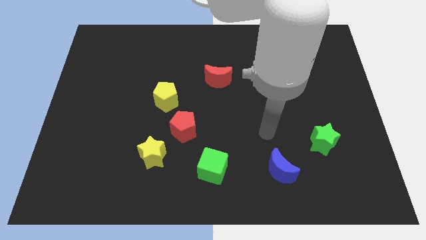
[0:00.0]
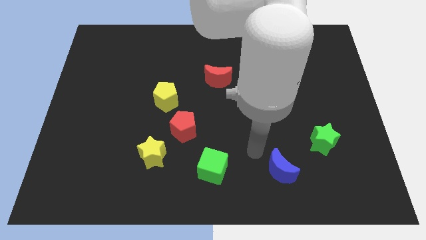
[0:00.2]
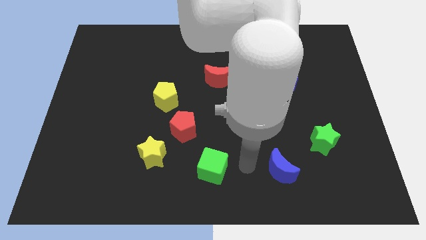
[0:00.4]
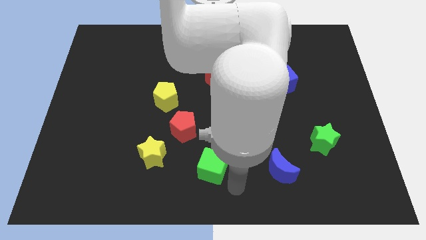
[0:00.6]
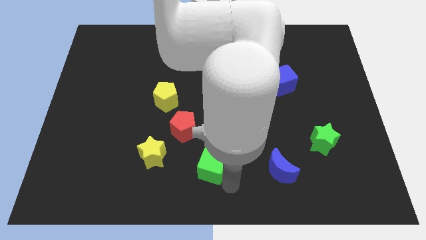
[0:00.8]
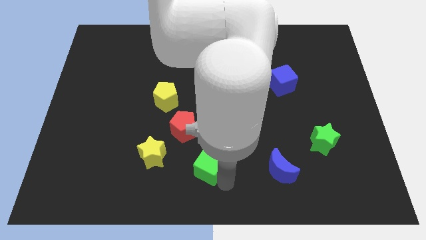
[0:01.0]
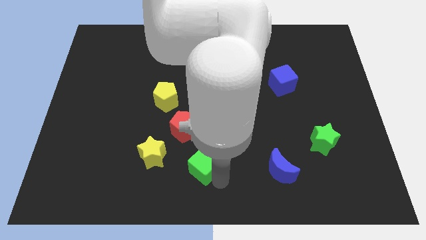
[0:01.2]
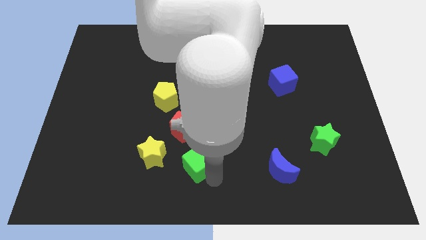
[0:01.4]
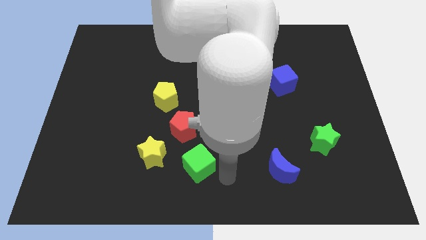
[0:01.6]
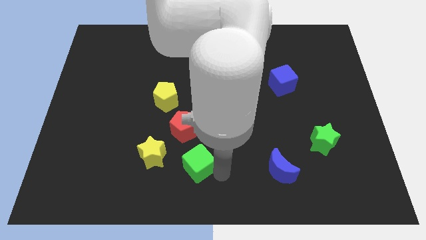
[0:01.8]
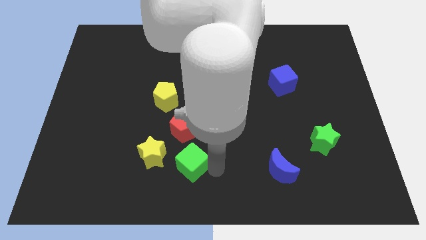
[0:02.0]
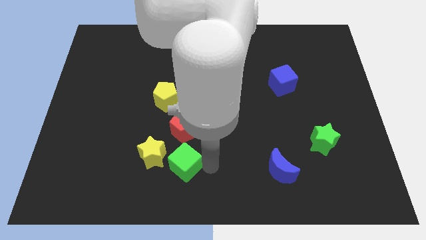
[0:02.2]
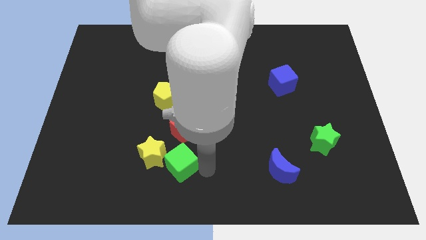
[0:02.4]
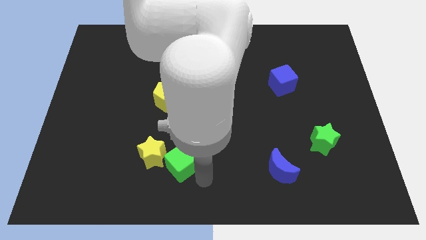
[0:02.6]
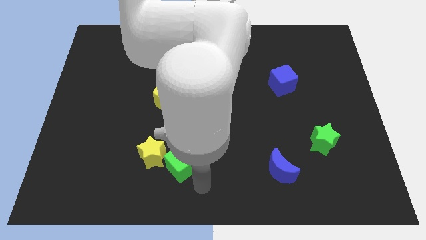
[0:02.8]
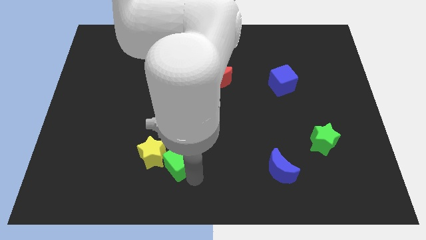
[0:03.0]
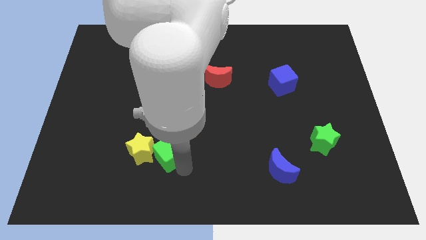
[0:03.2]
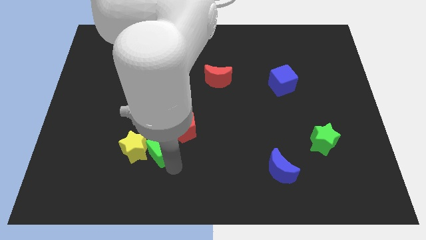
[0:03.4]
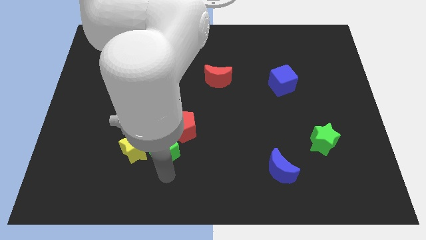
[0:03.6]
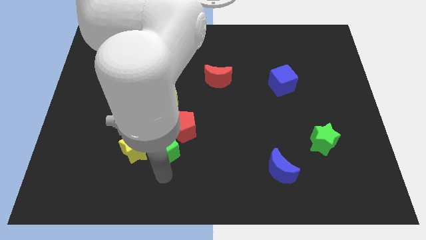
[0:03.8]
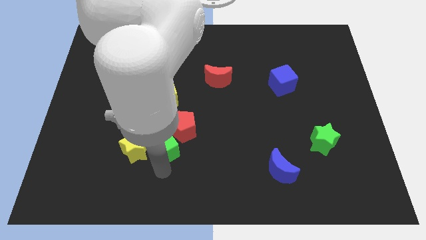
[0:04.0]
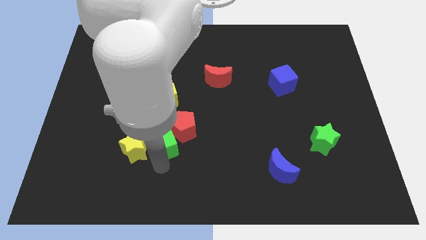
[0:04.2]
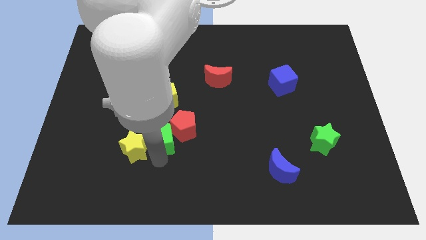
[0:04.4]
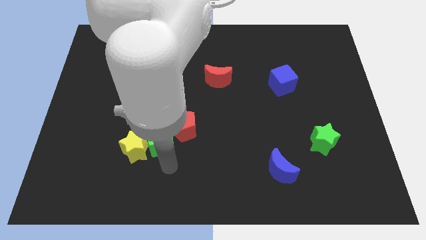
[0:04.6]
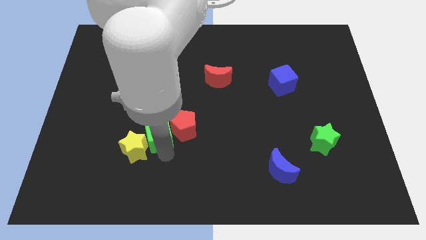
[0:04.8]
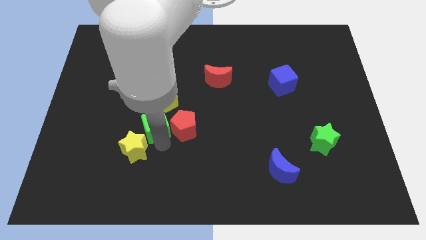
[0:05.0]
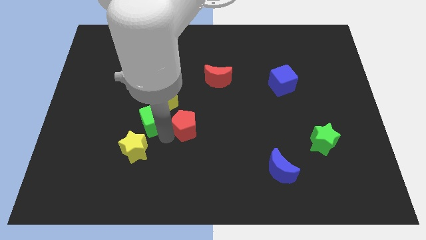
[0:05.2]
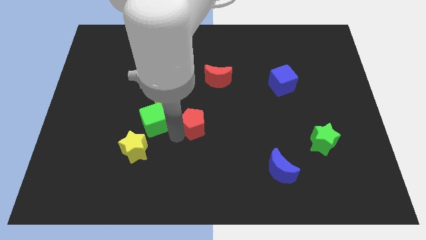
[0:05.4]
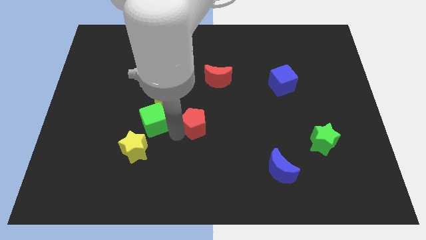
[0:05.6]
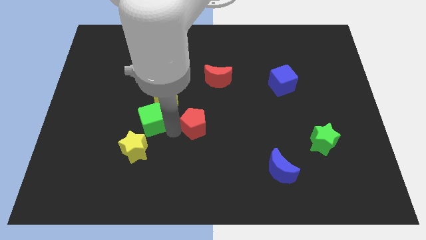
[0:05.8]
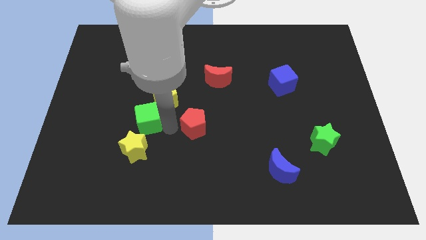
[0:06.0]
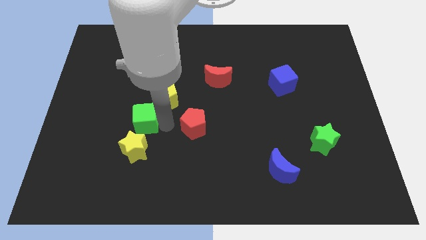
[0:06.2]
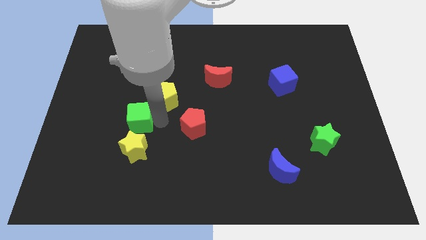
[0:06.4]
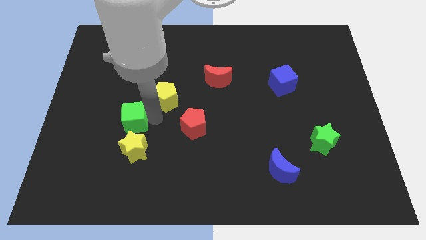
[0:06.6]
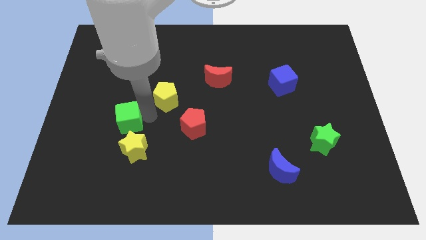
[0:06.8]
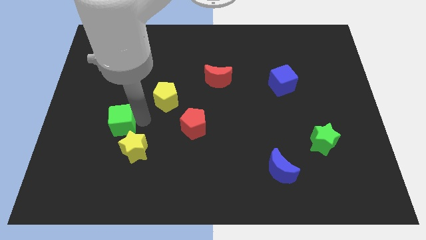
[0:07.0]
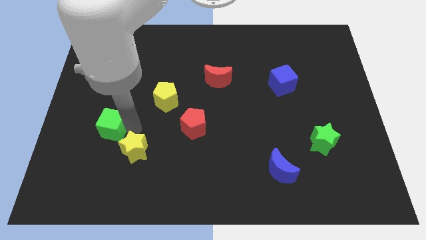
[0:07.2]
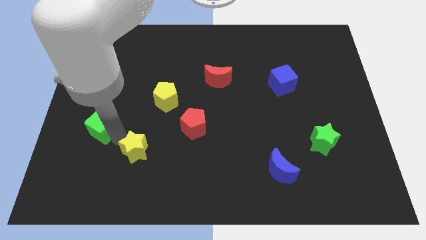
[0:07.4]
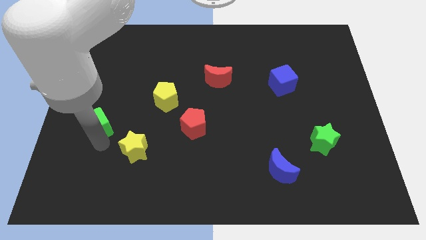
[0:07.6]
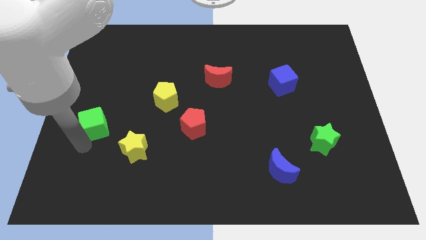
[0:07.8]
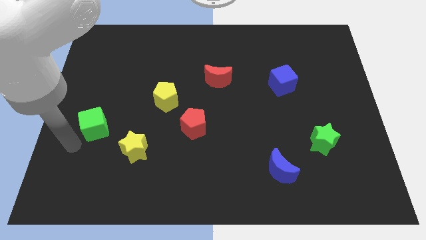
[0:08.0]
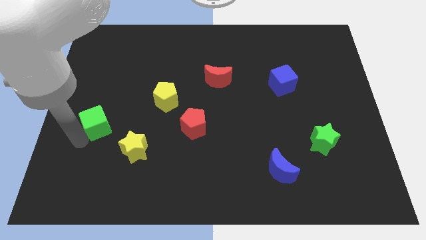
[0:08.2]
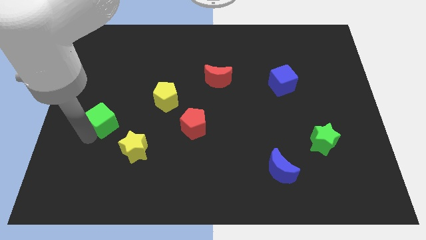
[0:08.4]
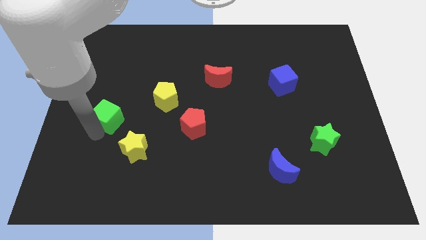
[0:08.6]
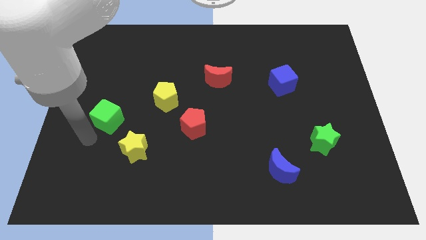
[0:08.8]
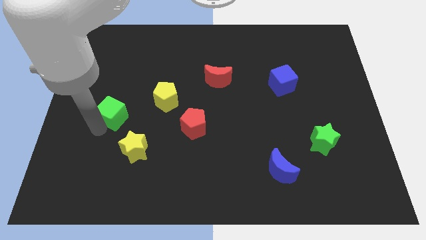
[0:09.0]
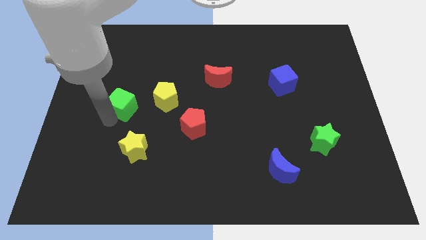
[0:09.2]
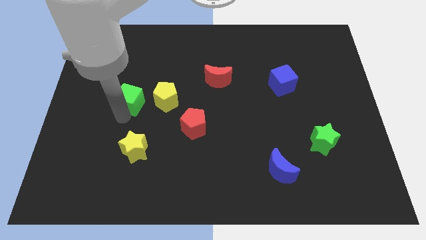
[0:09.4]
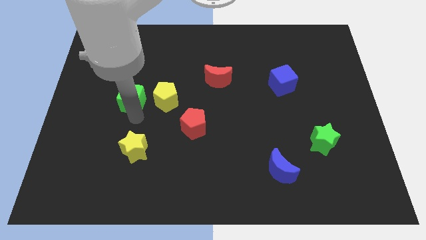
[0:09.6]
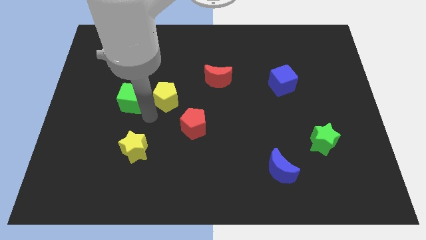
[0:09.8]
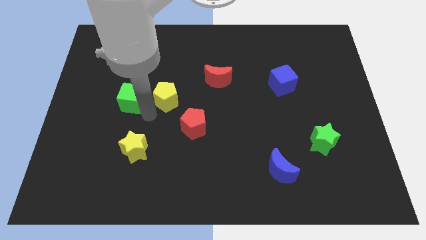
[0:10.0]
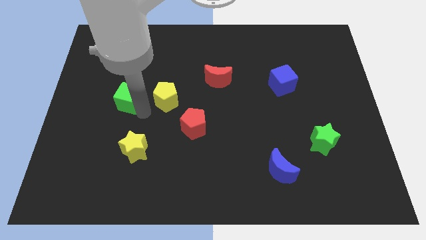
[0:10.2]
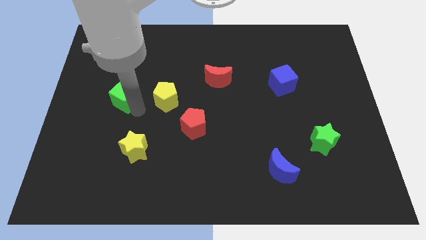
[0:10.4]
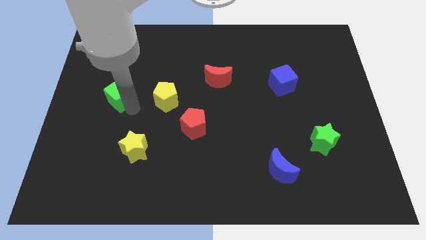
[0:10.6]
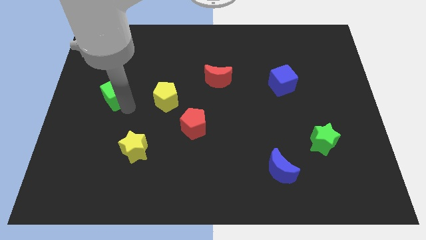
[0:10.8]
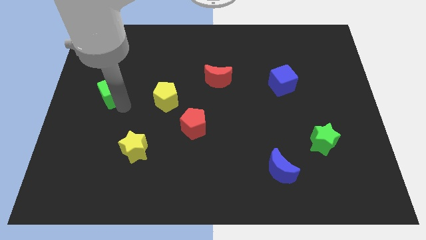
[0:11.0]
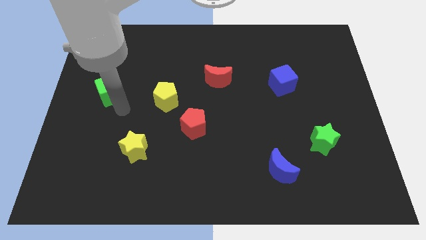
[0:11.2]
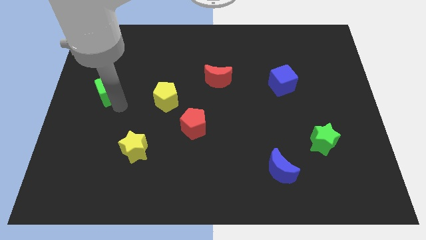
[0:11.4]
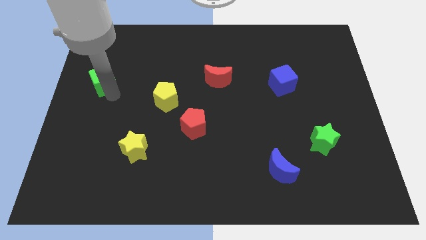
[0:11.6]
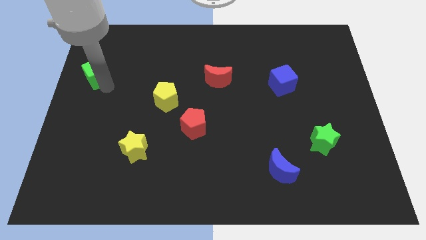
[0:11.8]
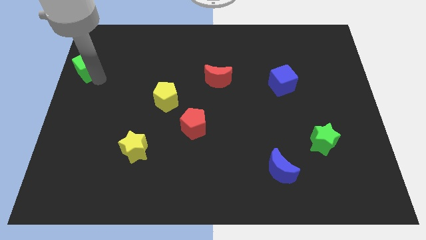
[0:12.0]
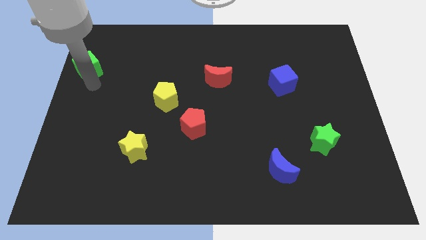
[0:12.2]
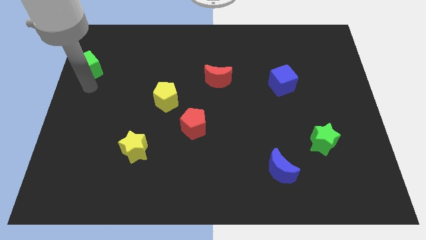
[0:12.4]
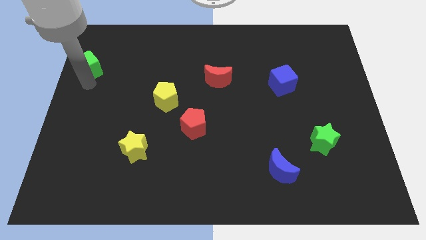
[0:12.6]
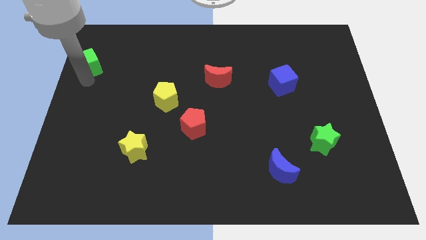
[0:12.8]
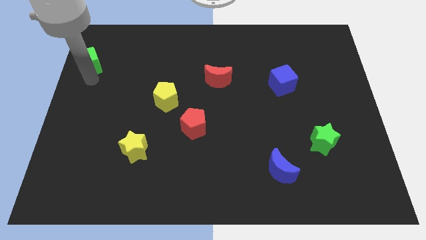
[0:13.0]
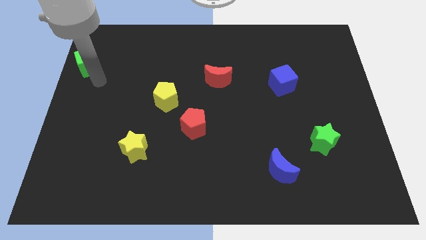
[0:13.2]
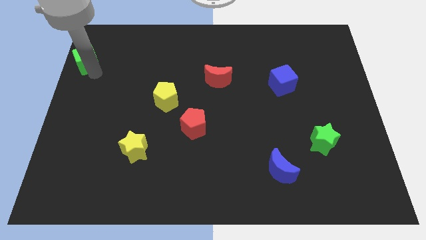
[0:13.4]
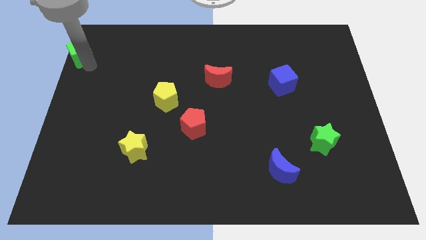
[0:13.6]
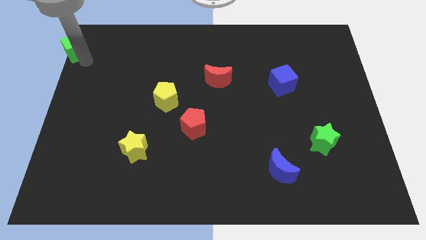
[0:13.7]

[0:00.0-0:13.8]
move the green cube to the upper left corner
